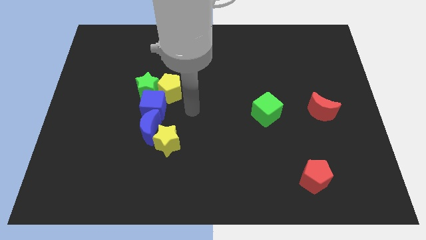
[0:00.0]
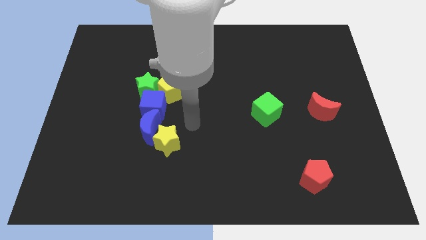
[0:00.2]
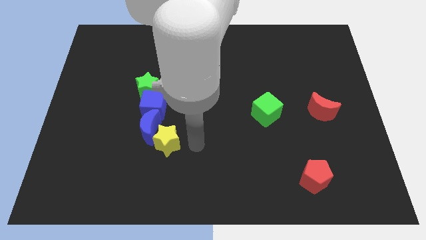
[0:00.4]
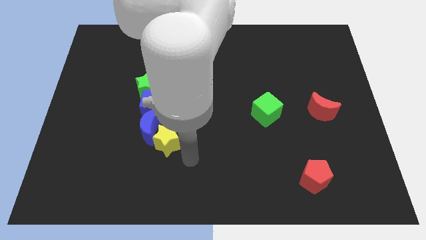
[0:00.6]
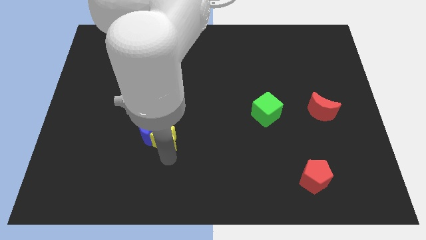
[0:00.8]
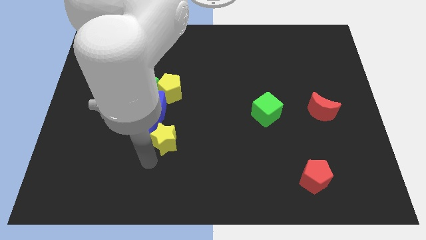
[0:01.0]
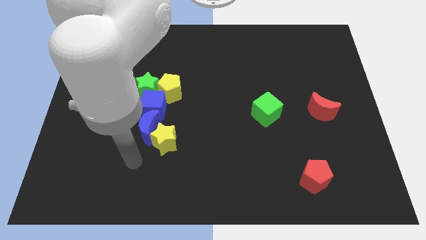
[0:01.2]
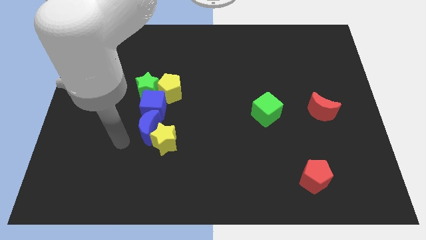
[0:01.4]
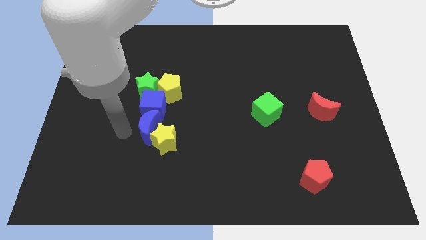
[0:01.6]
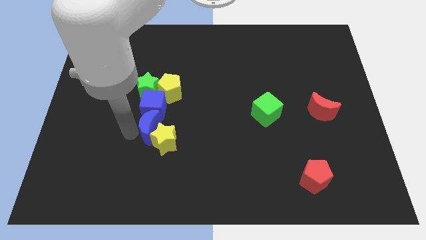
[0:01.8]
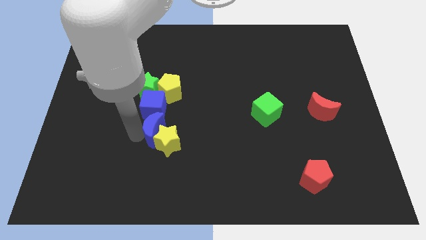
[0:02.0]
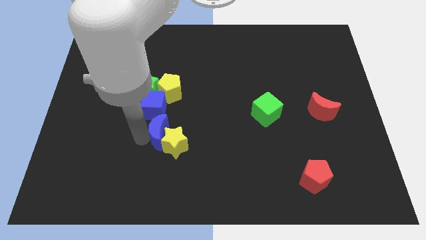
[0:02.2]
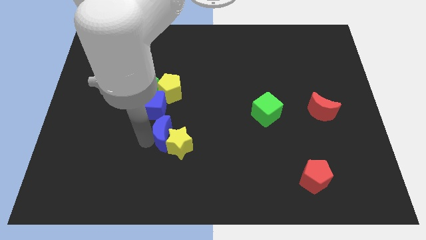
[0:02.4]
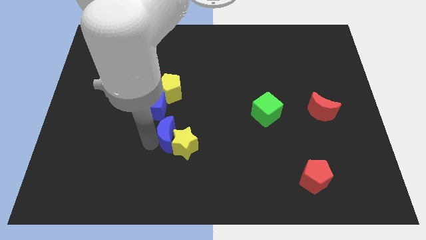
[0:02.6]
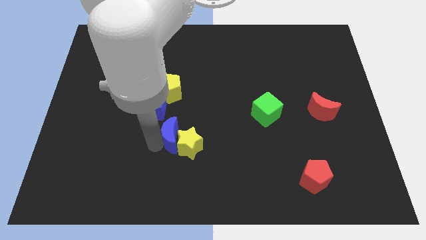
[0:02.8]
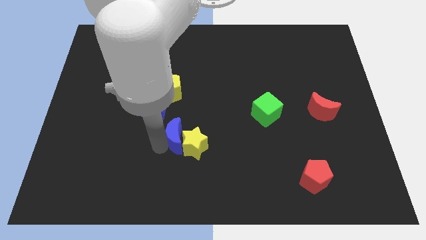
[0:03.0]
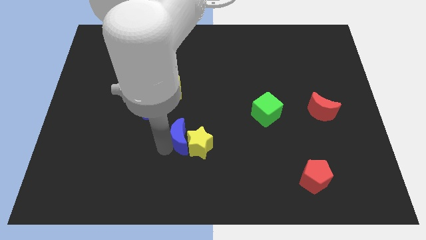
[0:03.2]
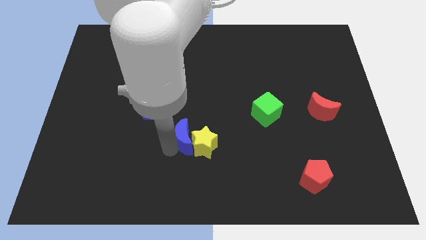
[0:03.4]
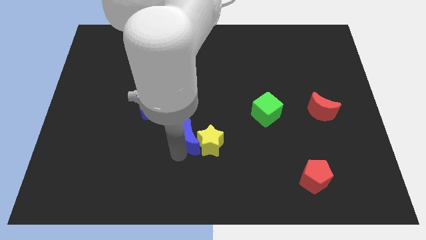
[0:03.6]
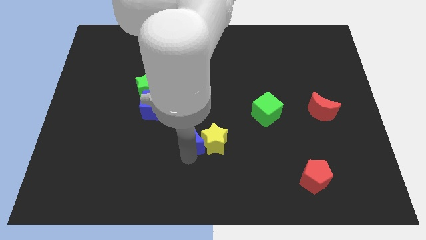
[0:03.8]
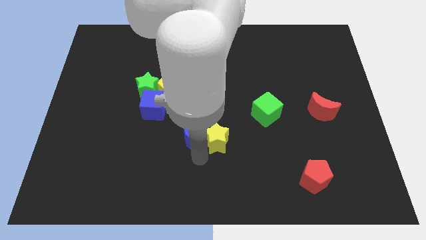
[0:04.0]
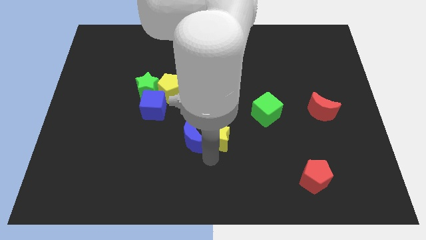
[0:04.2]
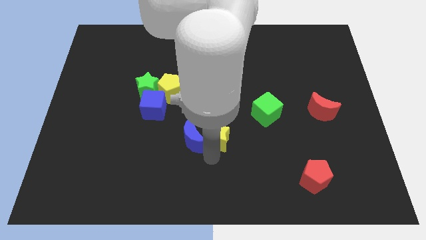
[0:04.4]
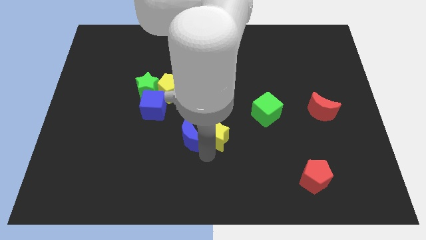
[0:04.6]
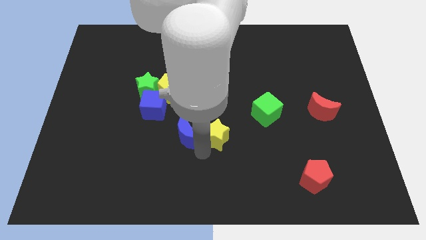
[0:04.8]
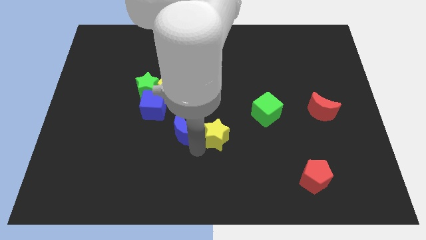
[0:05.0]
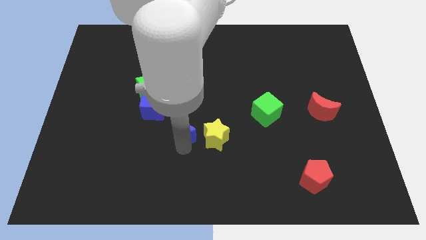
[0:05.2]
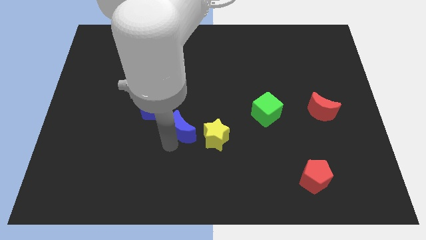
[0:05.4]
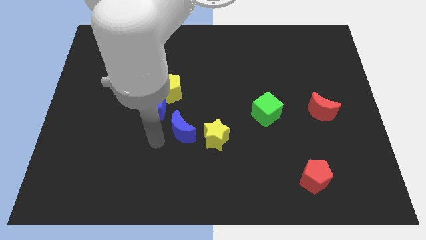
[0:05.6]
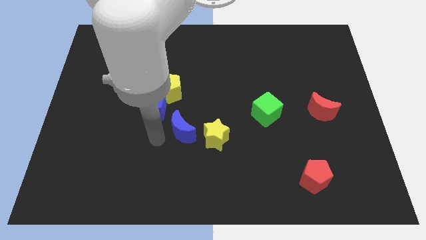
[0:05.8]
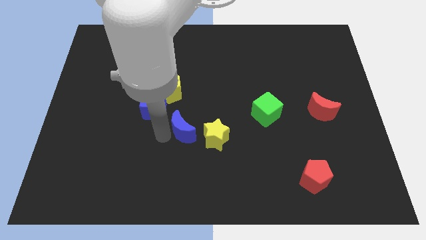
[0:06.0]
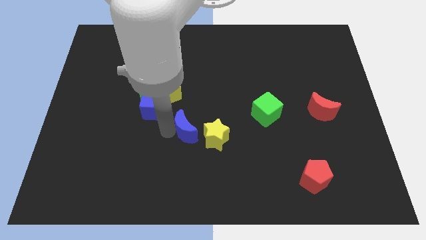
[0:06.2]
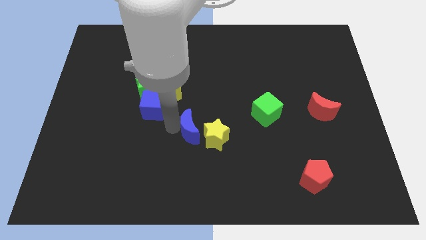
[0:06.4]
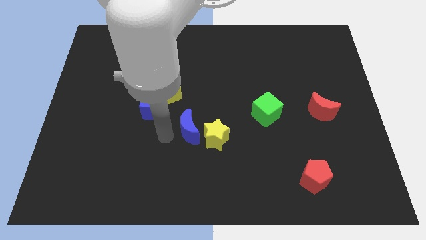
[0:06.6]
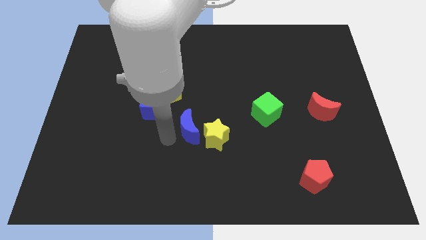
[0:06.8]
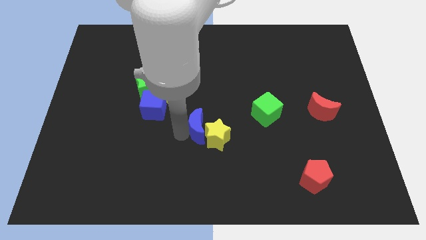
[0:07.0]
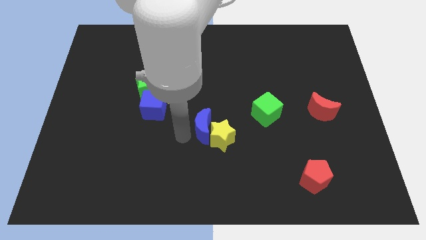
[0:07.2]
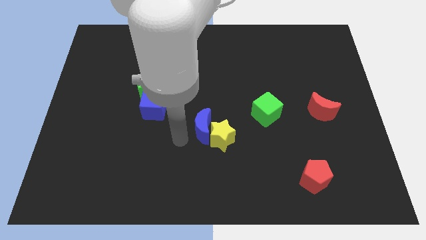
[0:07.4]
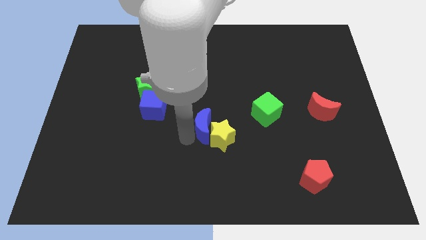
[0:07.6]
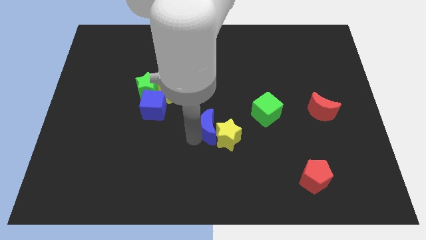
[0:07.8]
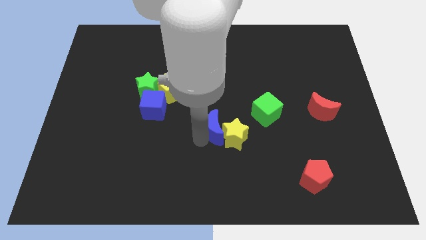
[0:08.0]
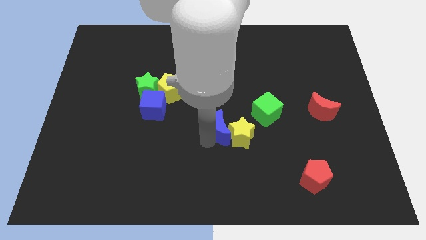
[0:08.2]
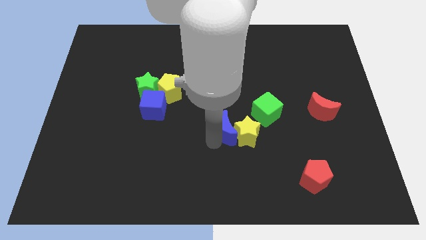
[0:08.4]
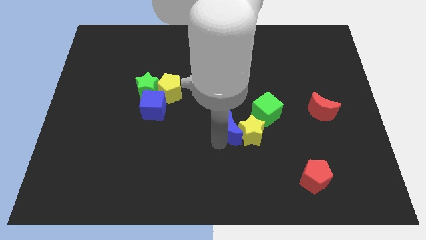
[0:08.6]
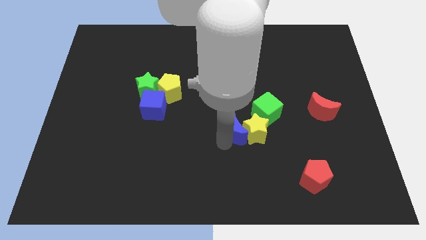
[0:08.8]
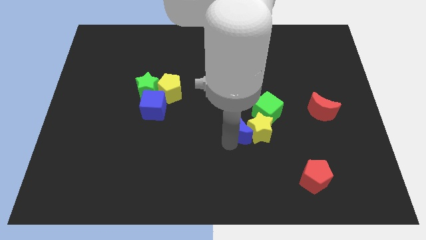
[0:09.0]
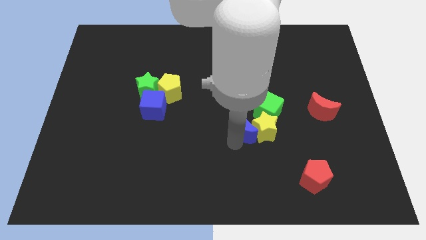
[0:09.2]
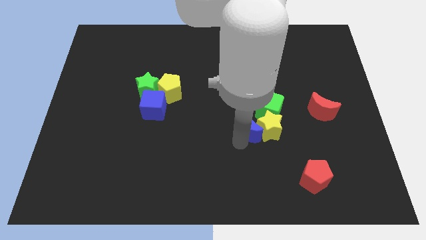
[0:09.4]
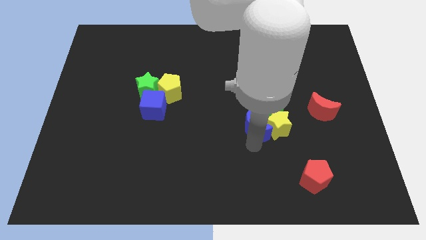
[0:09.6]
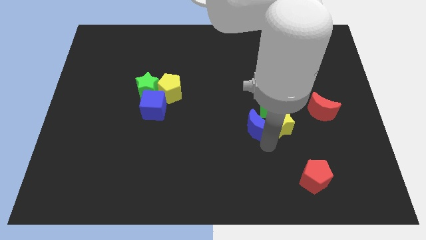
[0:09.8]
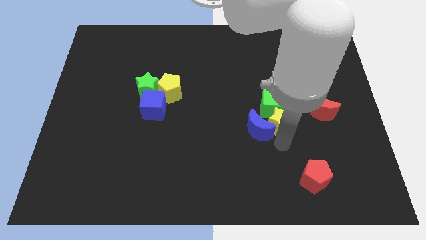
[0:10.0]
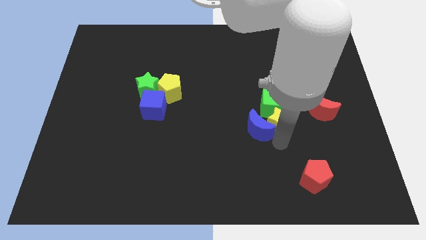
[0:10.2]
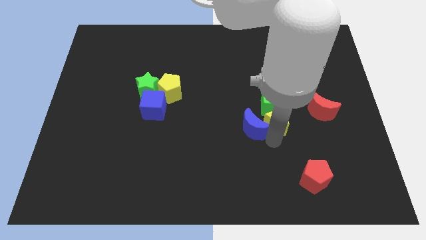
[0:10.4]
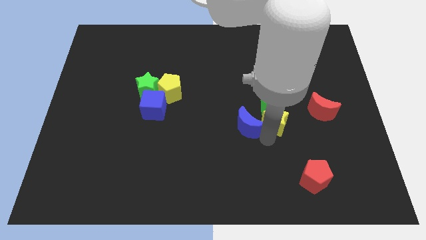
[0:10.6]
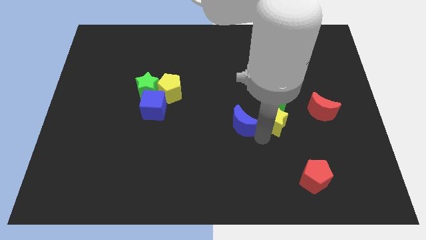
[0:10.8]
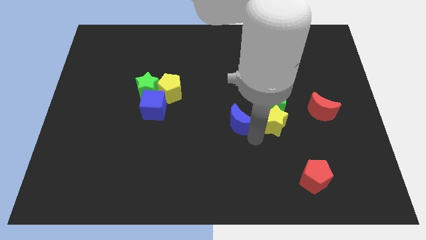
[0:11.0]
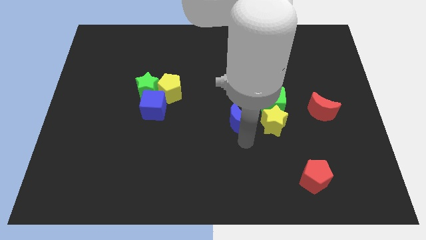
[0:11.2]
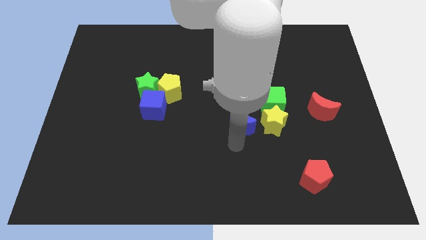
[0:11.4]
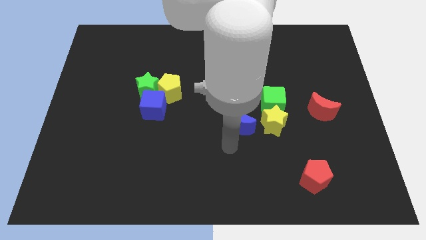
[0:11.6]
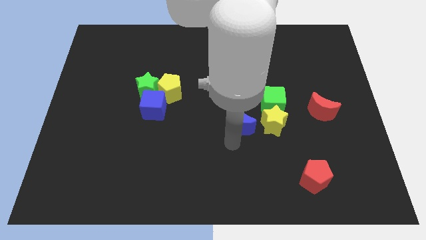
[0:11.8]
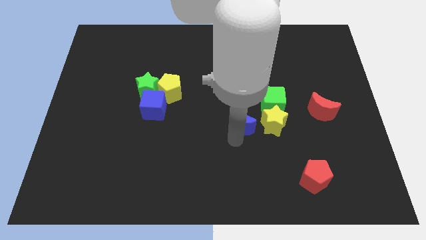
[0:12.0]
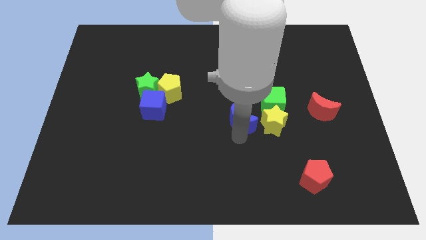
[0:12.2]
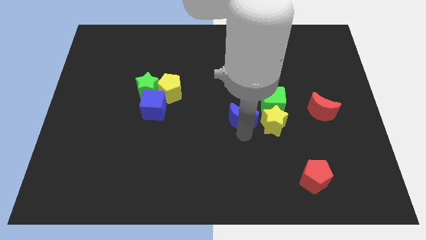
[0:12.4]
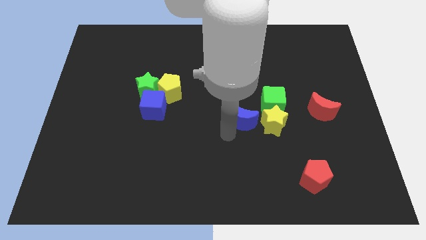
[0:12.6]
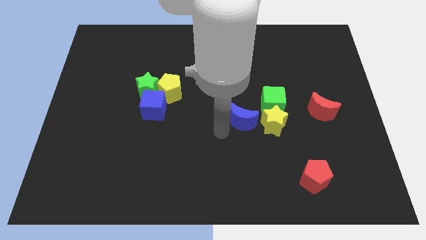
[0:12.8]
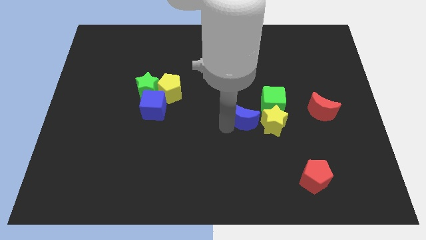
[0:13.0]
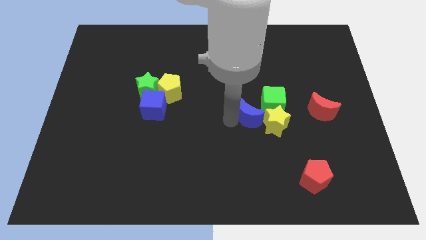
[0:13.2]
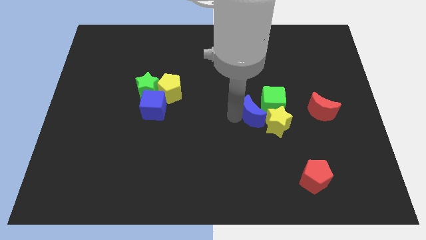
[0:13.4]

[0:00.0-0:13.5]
push the blue moon next to the green cube

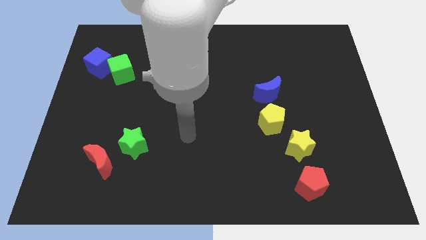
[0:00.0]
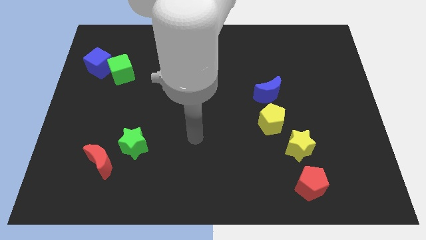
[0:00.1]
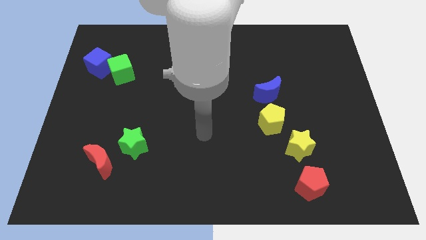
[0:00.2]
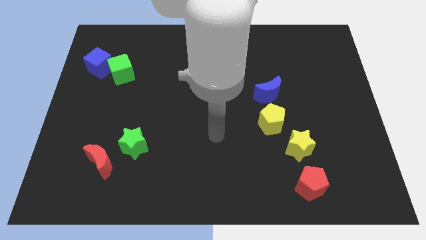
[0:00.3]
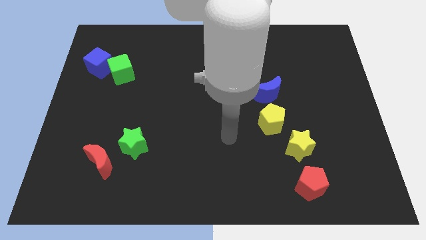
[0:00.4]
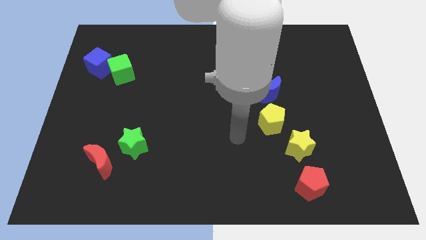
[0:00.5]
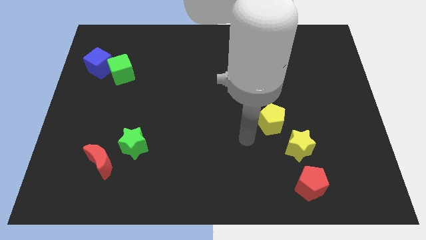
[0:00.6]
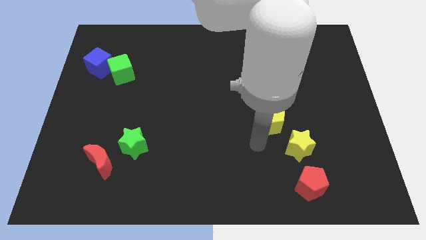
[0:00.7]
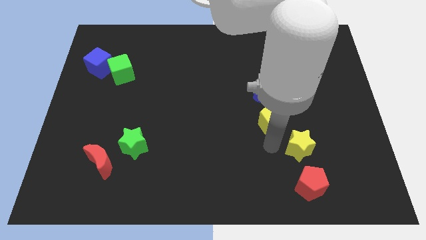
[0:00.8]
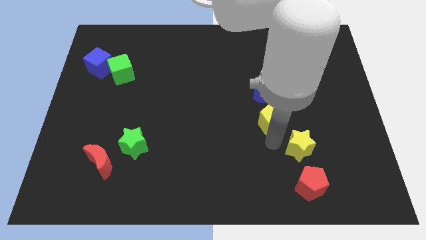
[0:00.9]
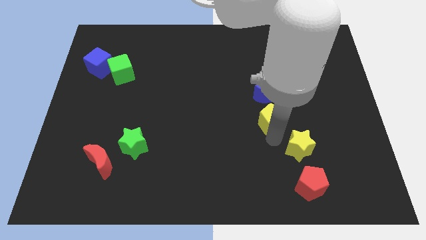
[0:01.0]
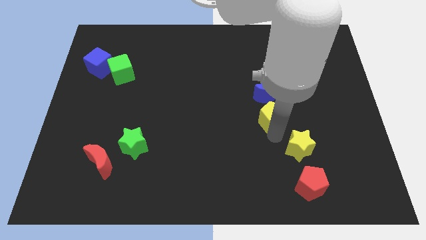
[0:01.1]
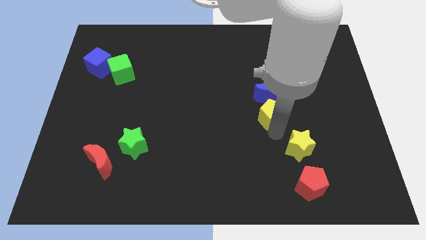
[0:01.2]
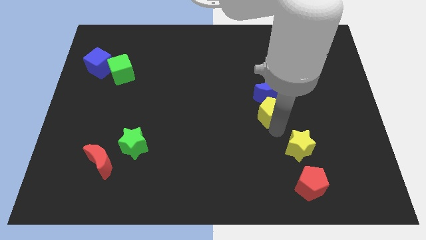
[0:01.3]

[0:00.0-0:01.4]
put the yellow pentagon to the blue moon

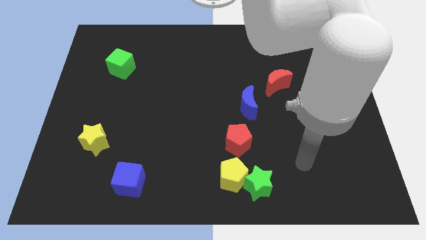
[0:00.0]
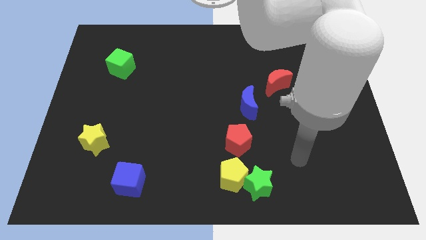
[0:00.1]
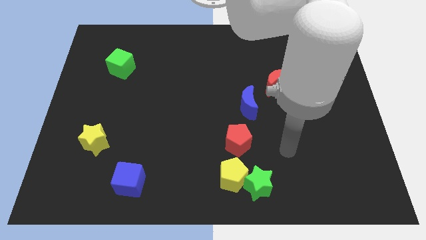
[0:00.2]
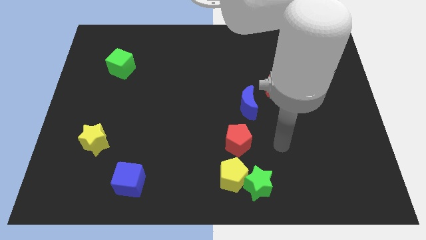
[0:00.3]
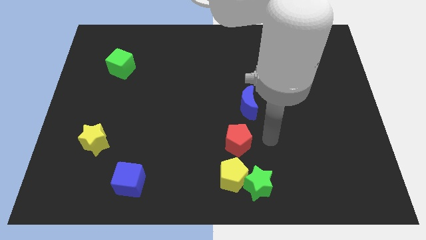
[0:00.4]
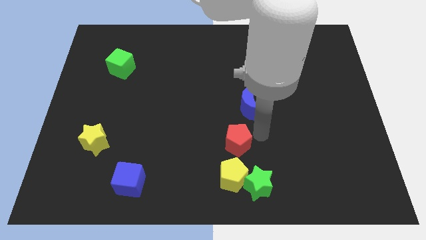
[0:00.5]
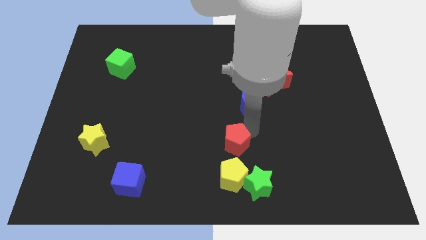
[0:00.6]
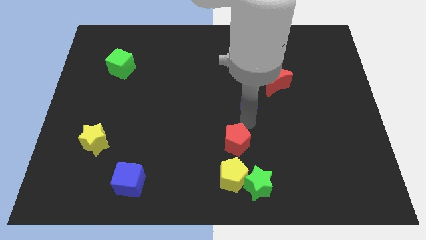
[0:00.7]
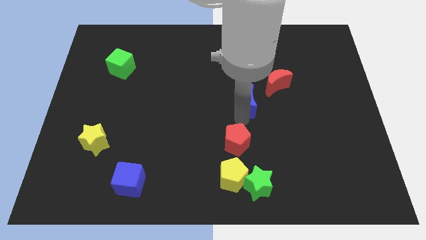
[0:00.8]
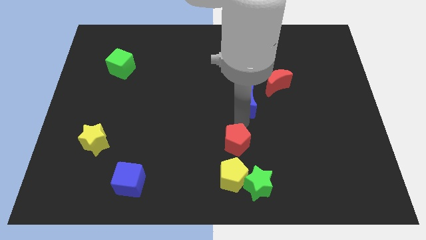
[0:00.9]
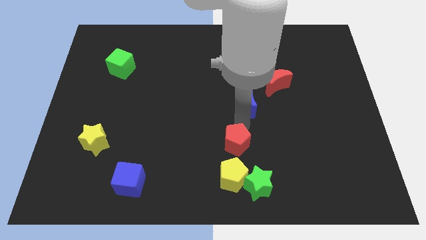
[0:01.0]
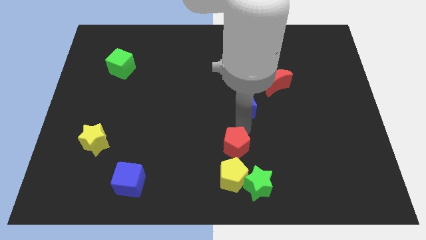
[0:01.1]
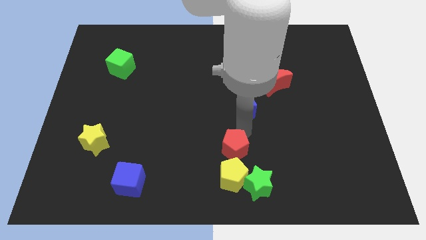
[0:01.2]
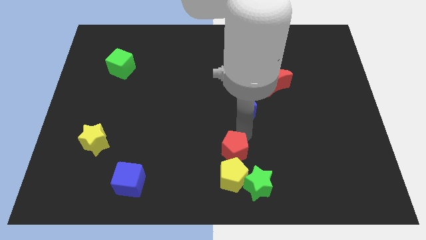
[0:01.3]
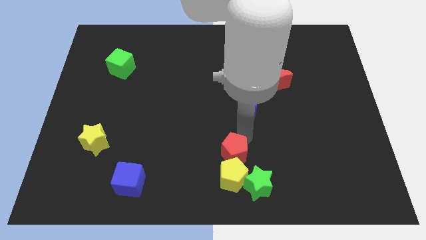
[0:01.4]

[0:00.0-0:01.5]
move the red pentagon towards the yellow pentagon
